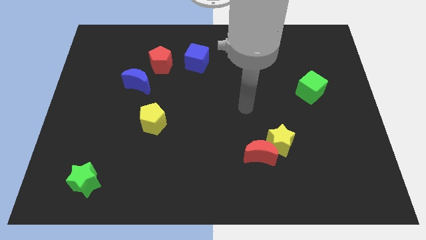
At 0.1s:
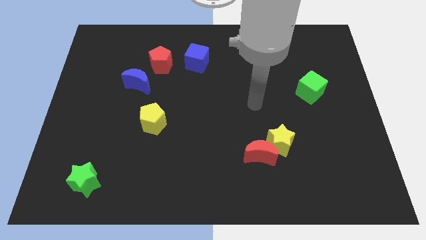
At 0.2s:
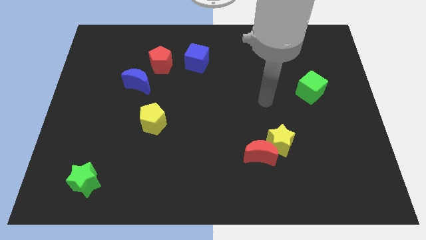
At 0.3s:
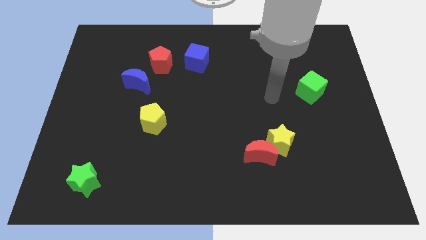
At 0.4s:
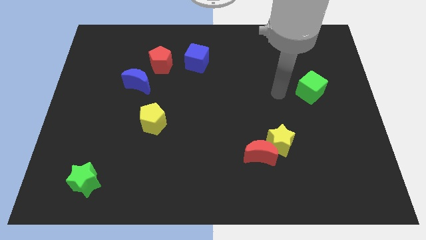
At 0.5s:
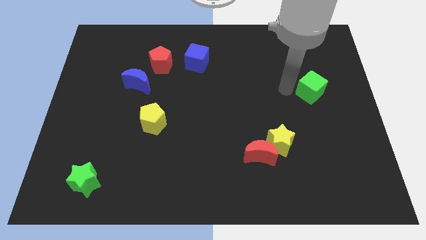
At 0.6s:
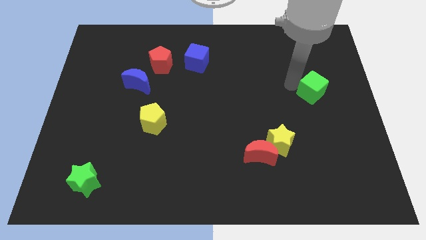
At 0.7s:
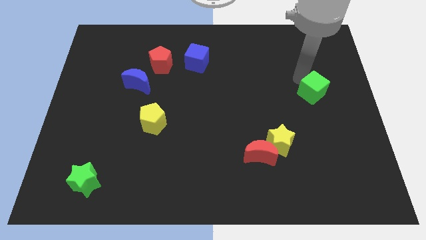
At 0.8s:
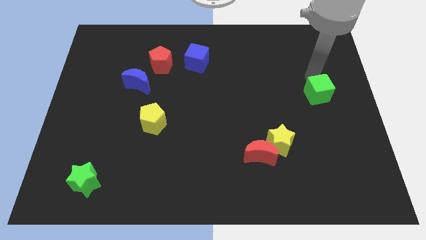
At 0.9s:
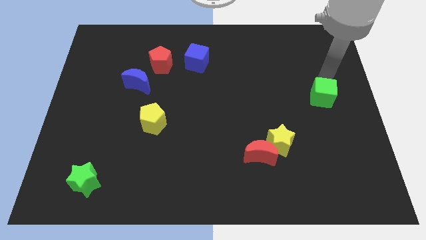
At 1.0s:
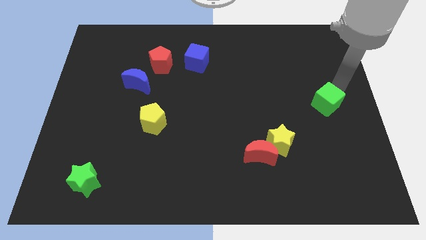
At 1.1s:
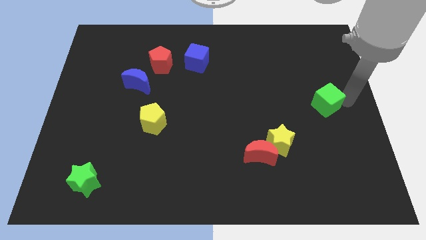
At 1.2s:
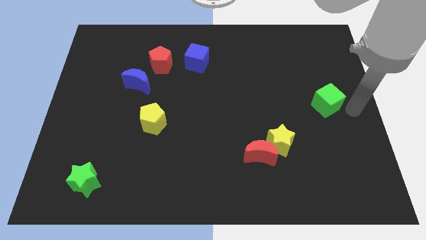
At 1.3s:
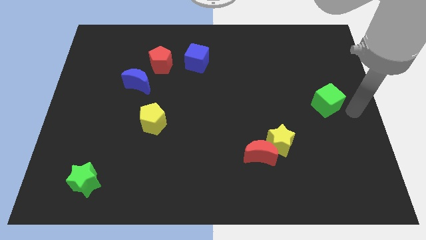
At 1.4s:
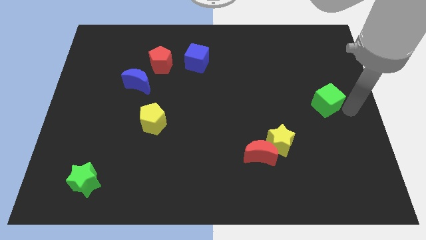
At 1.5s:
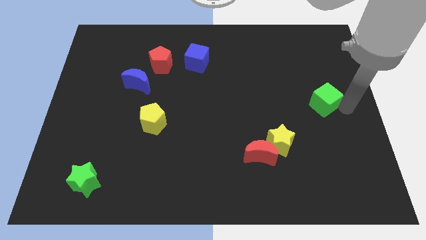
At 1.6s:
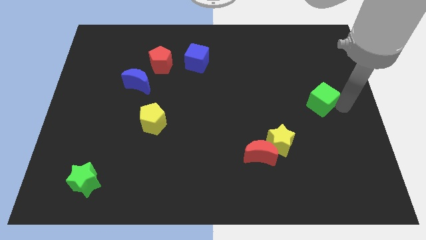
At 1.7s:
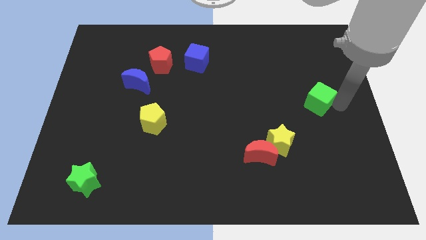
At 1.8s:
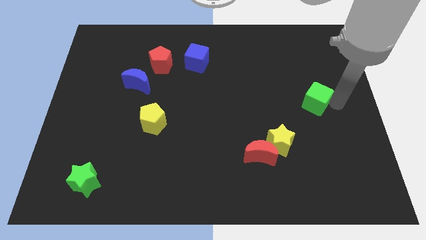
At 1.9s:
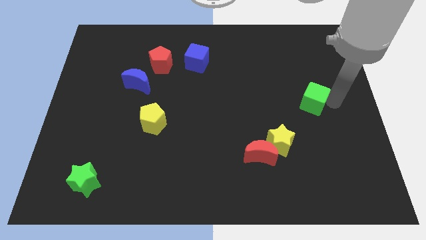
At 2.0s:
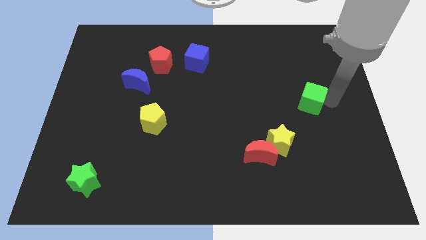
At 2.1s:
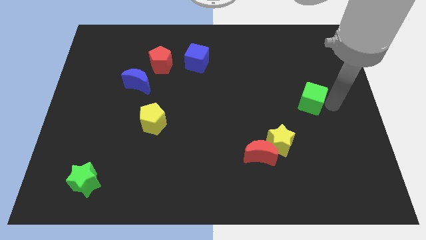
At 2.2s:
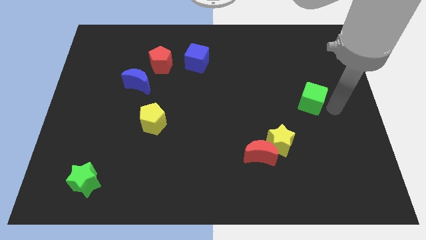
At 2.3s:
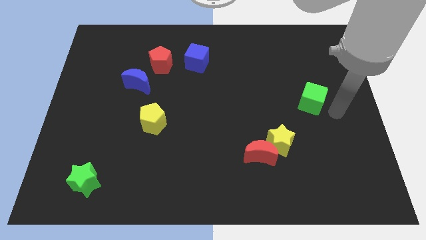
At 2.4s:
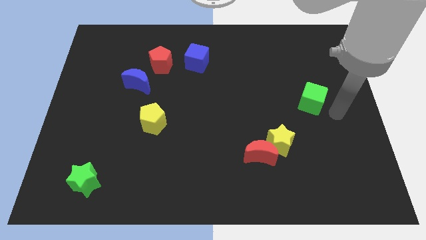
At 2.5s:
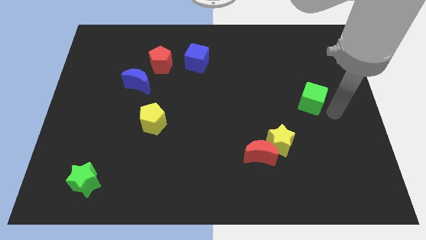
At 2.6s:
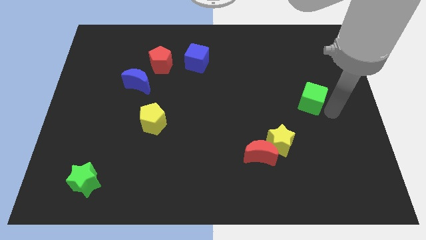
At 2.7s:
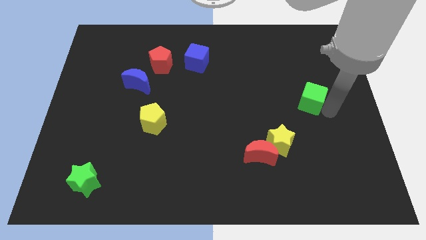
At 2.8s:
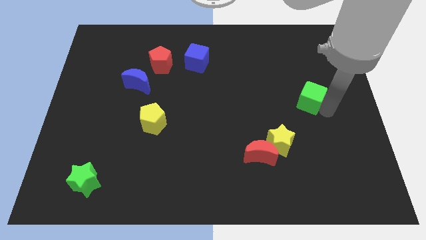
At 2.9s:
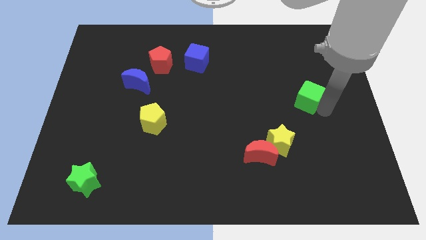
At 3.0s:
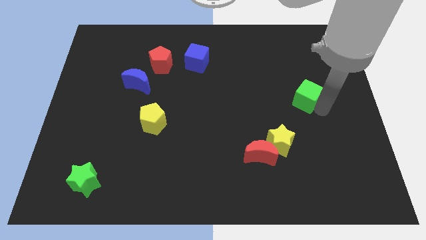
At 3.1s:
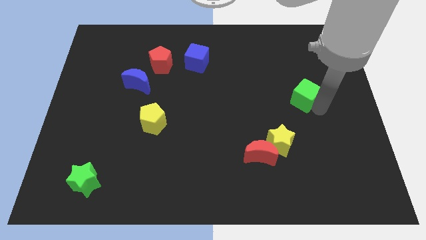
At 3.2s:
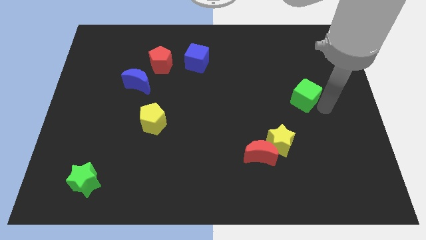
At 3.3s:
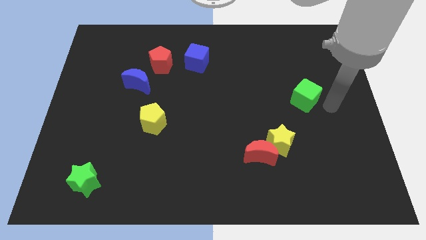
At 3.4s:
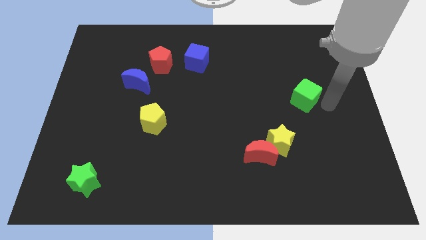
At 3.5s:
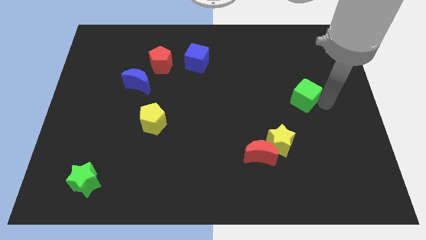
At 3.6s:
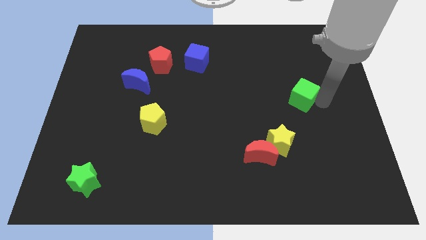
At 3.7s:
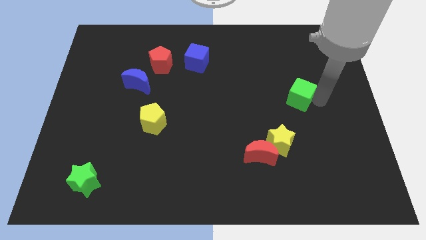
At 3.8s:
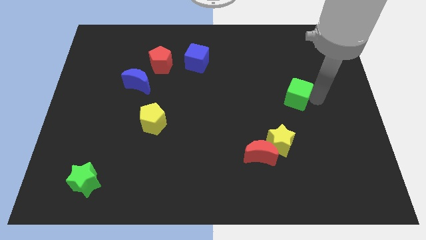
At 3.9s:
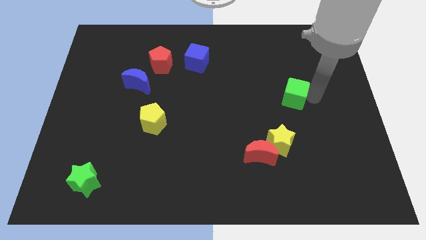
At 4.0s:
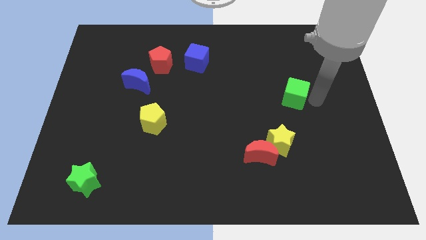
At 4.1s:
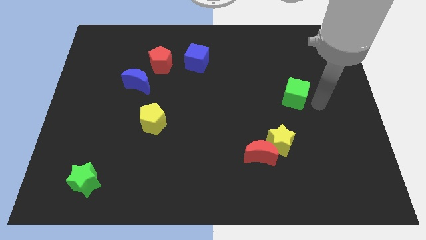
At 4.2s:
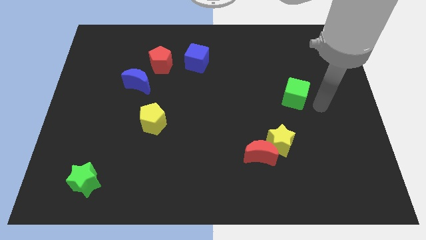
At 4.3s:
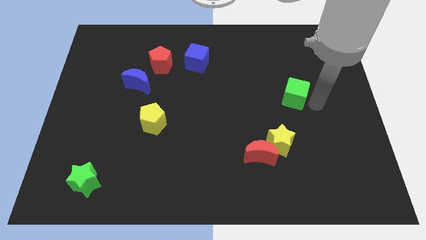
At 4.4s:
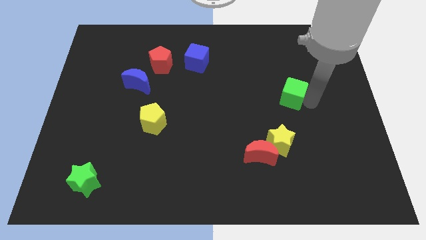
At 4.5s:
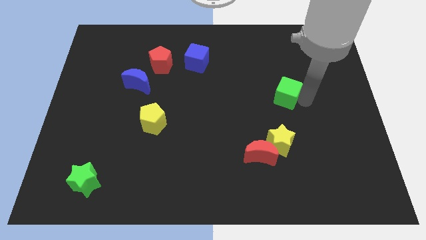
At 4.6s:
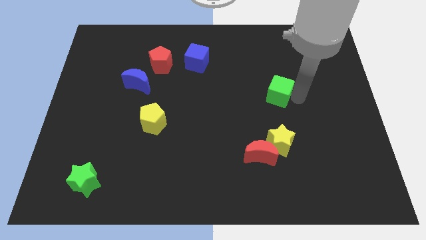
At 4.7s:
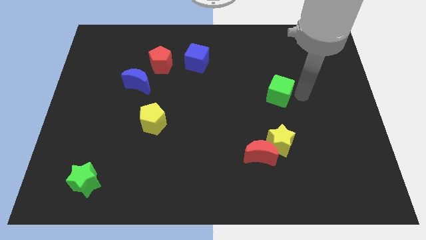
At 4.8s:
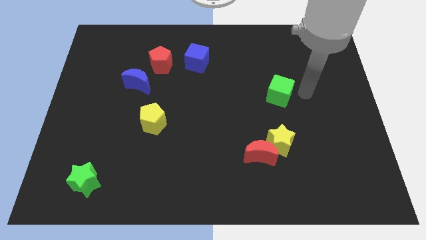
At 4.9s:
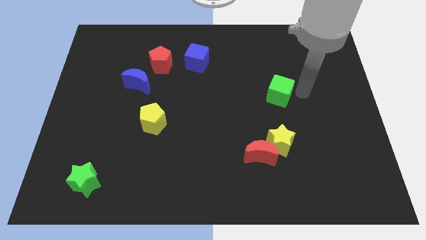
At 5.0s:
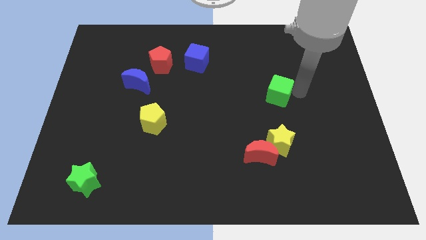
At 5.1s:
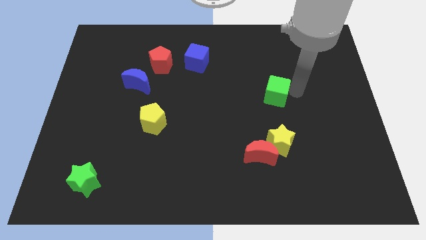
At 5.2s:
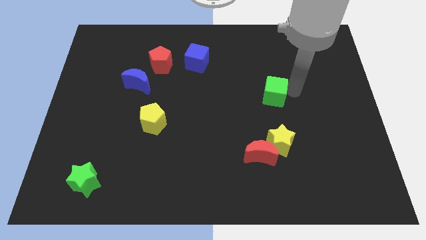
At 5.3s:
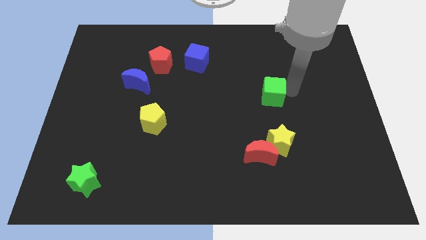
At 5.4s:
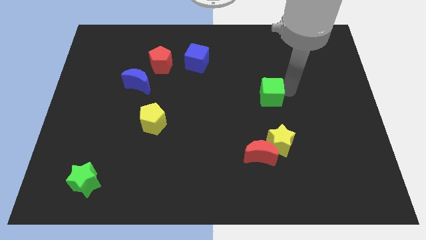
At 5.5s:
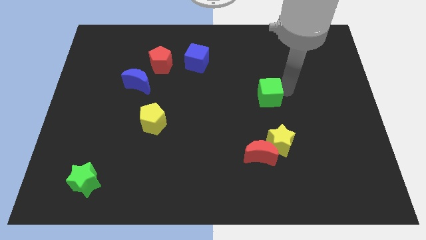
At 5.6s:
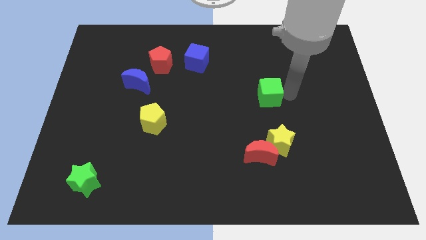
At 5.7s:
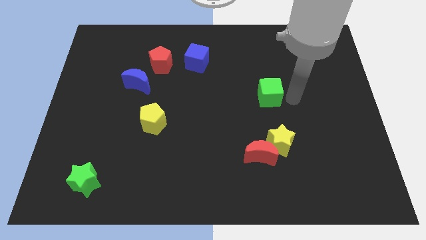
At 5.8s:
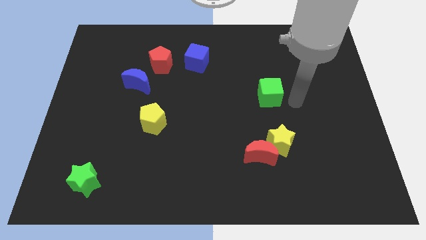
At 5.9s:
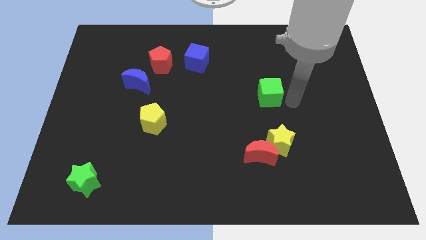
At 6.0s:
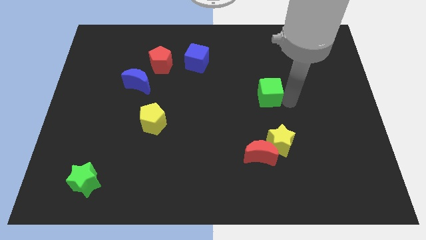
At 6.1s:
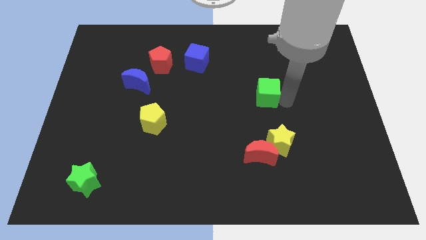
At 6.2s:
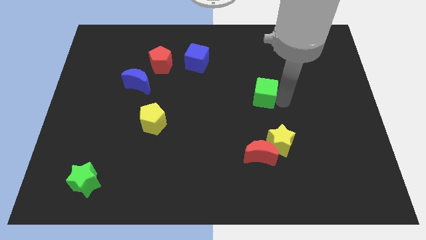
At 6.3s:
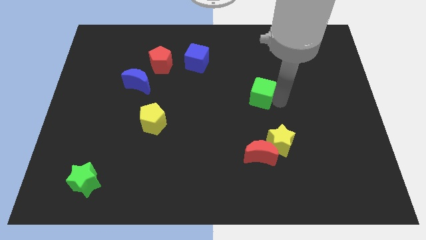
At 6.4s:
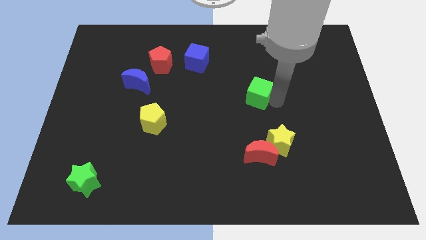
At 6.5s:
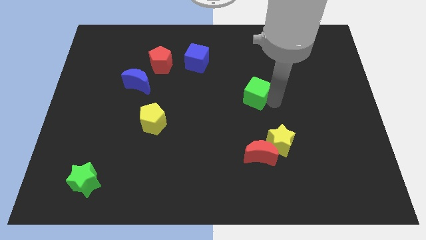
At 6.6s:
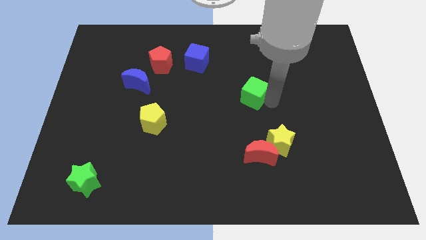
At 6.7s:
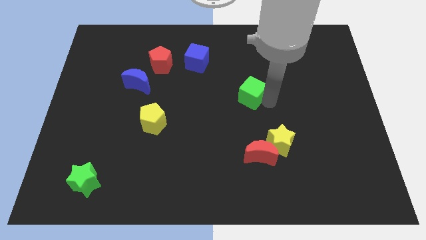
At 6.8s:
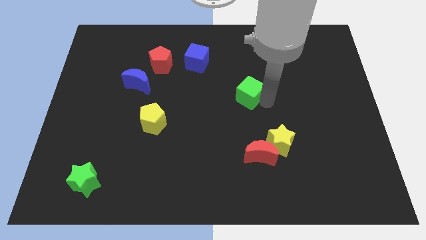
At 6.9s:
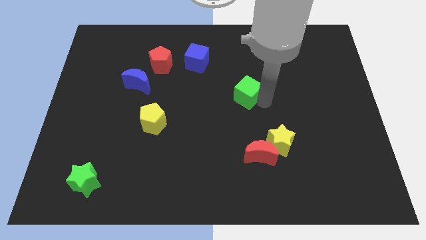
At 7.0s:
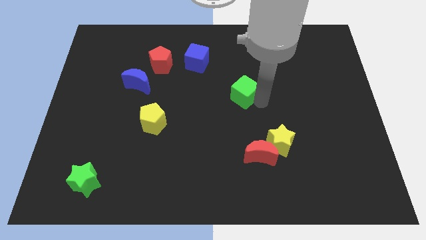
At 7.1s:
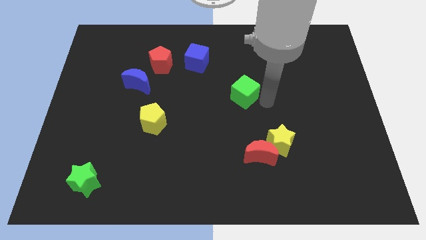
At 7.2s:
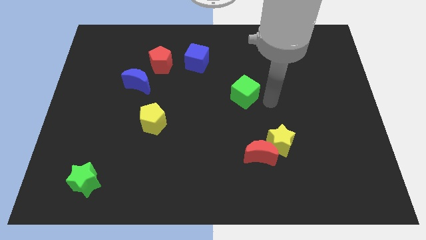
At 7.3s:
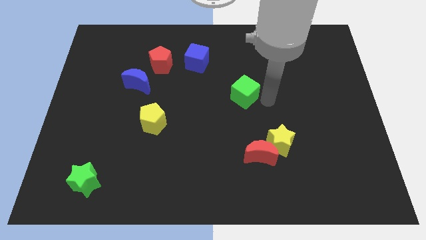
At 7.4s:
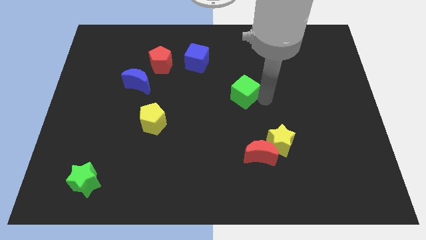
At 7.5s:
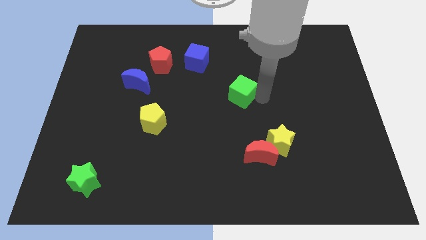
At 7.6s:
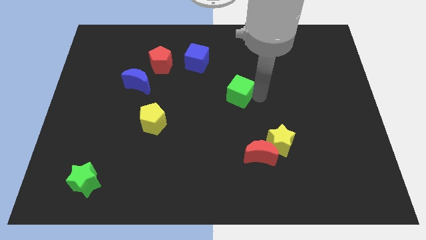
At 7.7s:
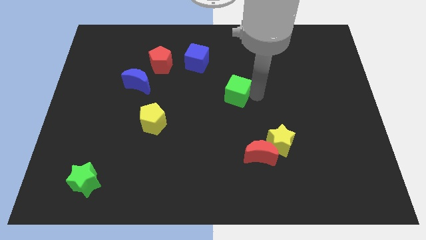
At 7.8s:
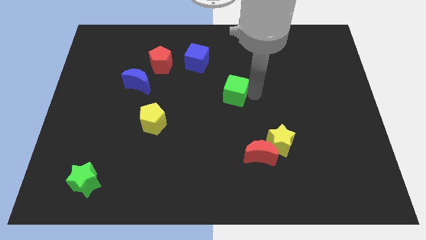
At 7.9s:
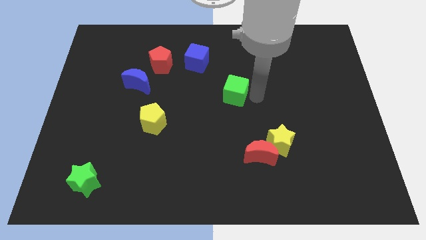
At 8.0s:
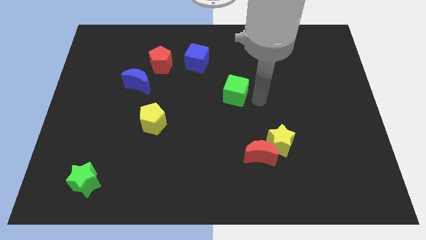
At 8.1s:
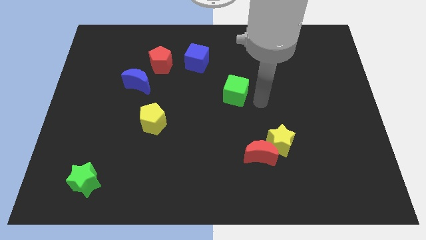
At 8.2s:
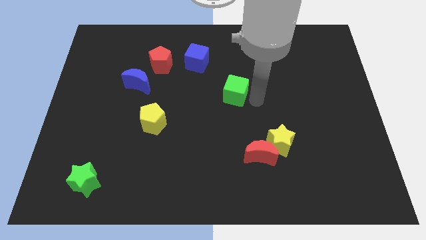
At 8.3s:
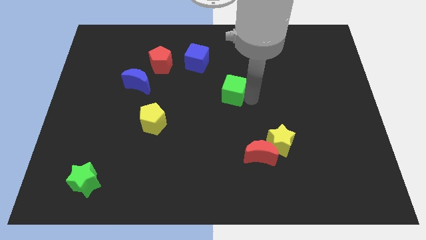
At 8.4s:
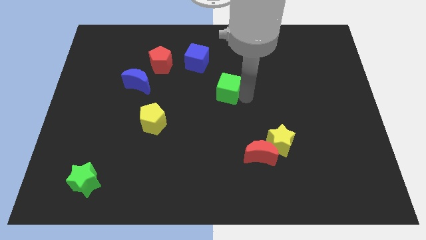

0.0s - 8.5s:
push the green cube left
